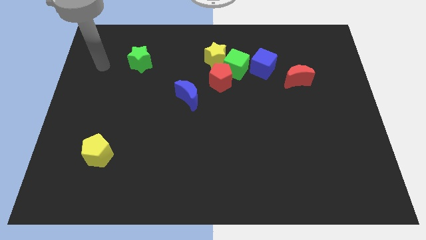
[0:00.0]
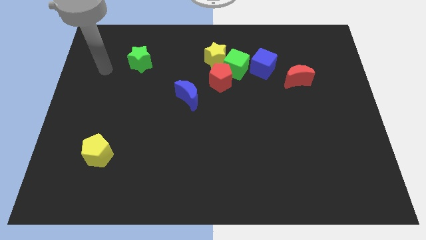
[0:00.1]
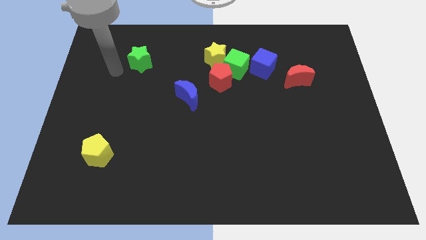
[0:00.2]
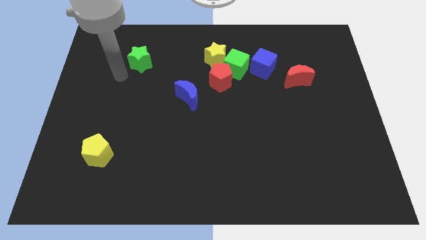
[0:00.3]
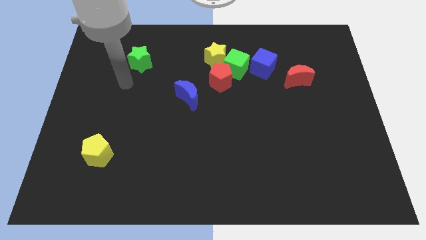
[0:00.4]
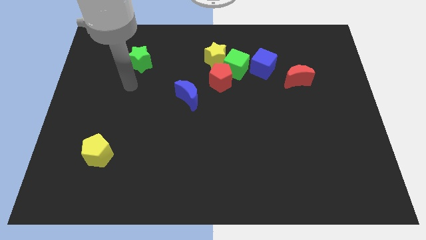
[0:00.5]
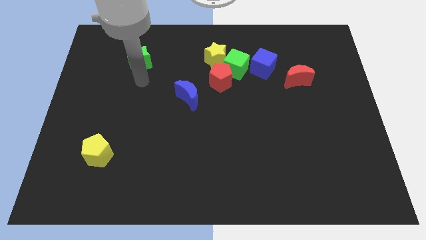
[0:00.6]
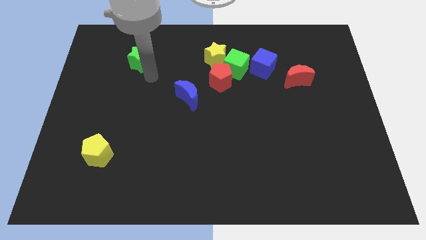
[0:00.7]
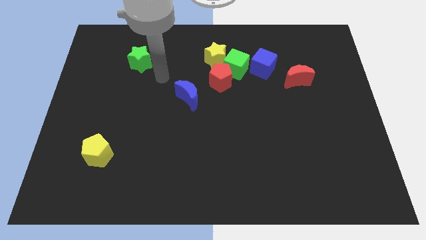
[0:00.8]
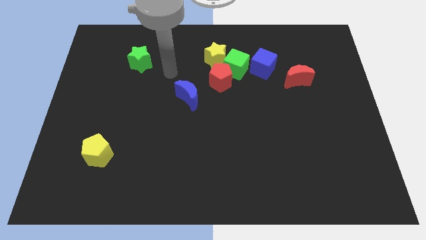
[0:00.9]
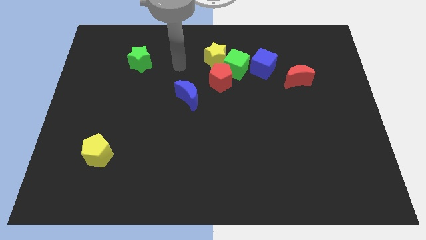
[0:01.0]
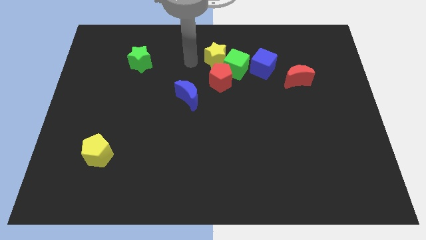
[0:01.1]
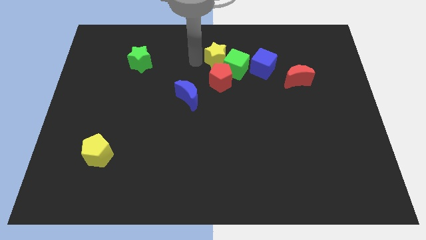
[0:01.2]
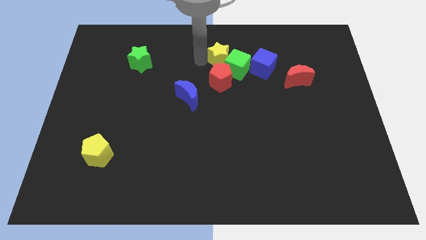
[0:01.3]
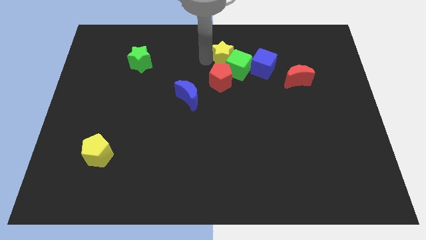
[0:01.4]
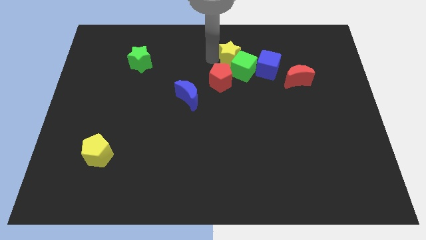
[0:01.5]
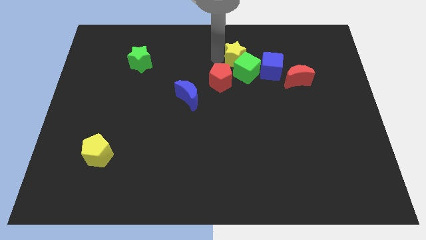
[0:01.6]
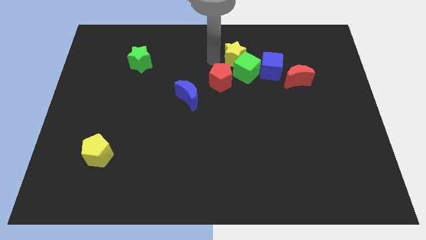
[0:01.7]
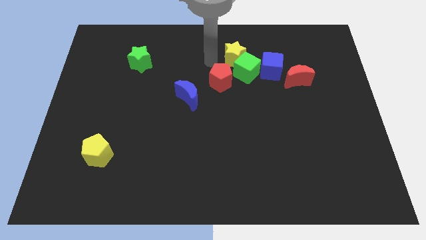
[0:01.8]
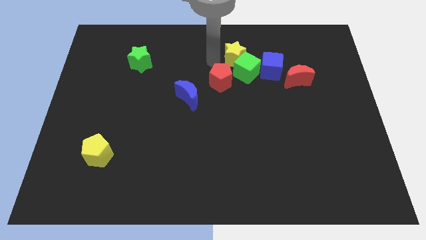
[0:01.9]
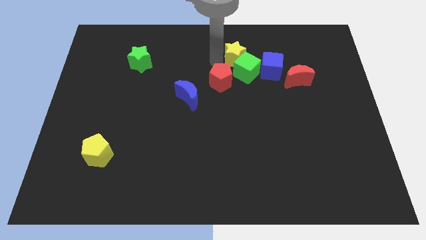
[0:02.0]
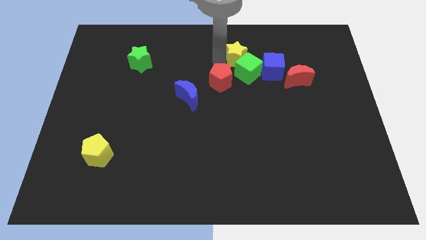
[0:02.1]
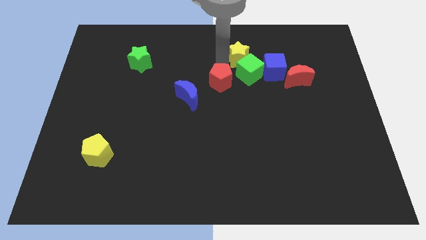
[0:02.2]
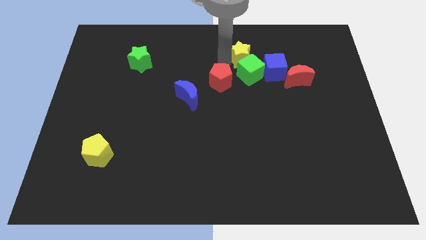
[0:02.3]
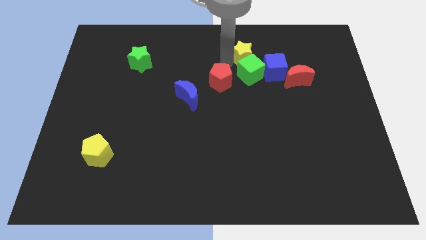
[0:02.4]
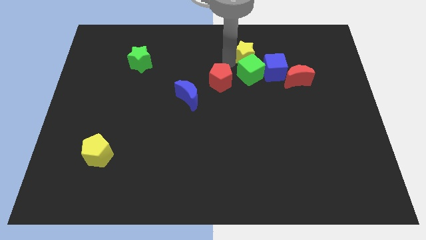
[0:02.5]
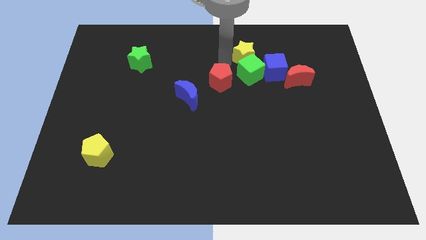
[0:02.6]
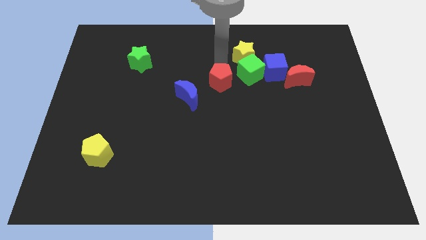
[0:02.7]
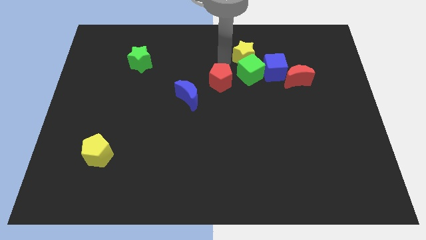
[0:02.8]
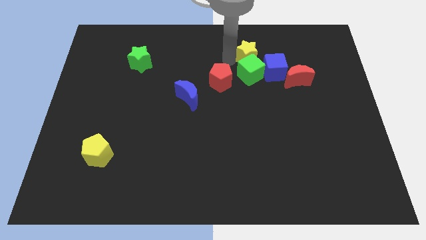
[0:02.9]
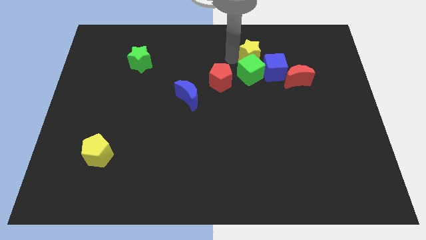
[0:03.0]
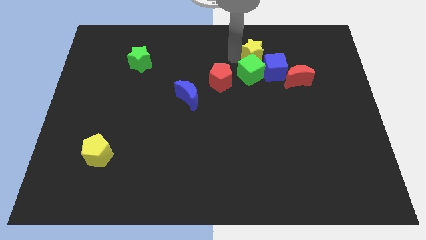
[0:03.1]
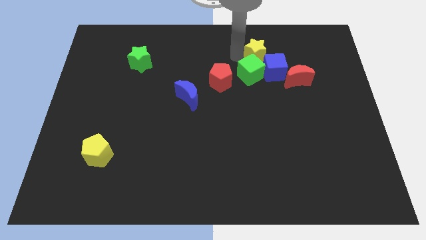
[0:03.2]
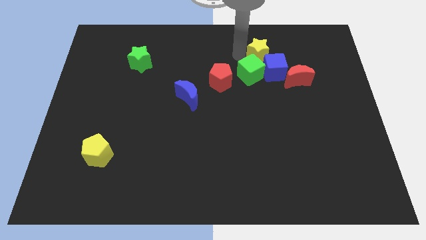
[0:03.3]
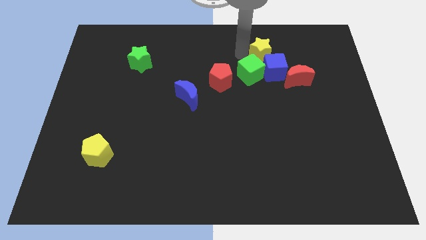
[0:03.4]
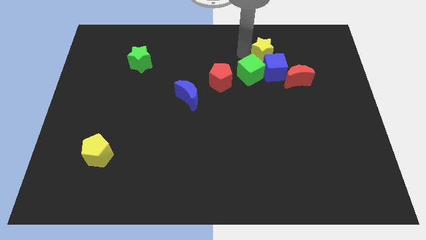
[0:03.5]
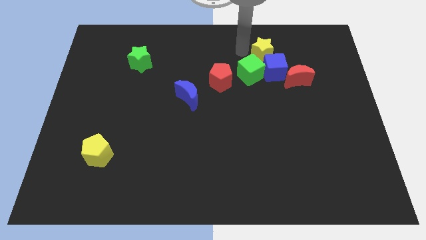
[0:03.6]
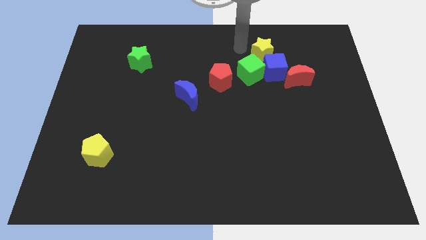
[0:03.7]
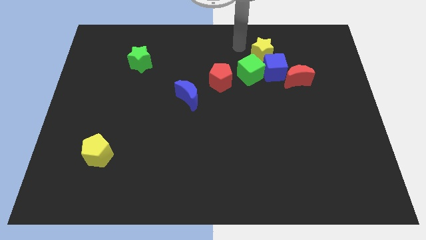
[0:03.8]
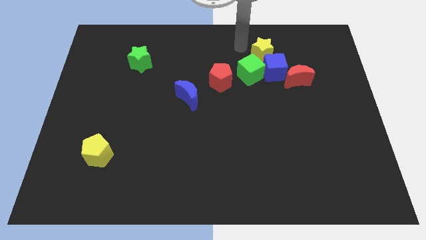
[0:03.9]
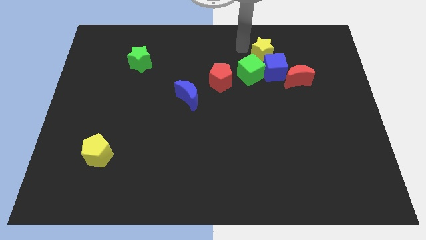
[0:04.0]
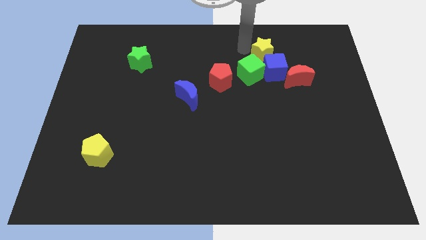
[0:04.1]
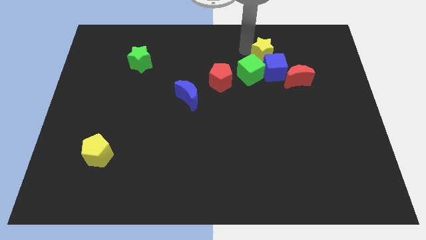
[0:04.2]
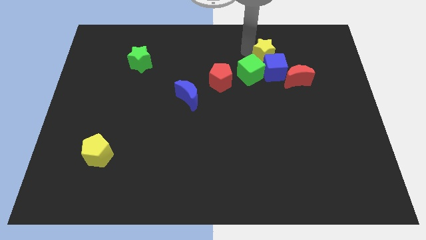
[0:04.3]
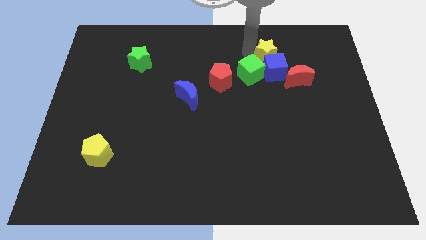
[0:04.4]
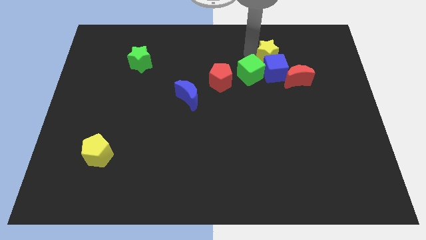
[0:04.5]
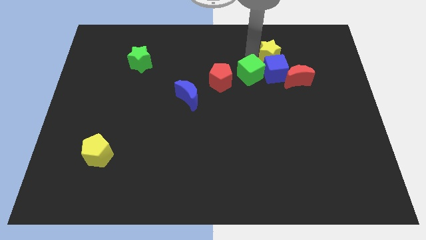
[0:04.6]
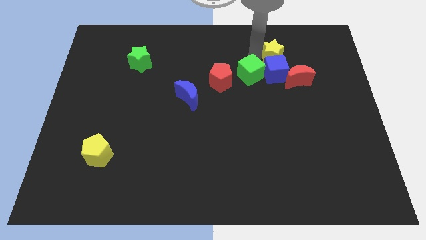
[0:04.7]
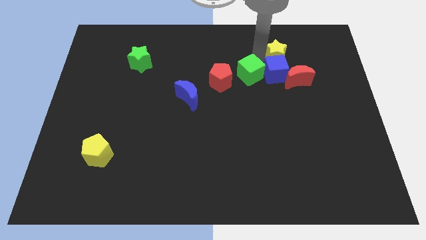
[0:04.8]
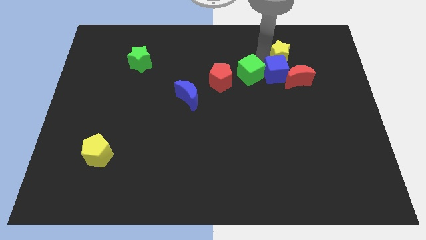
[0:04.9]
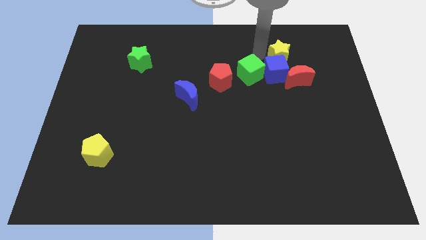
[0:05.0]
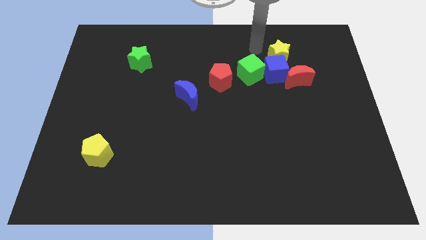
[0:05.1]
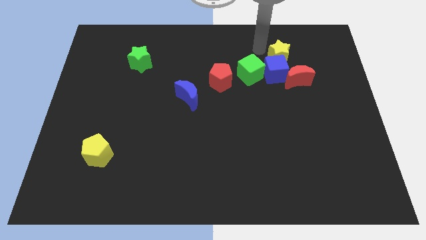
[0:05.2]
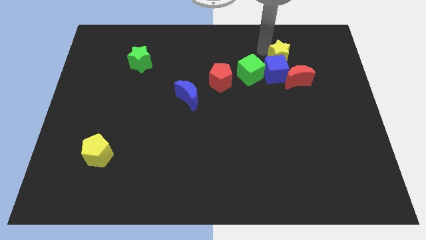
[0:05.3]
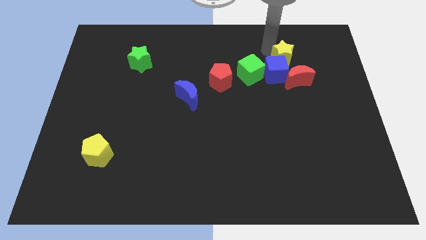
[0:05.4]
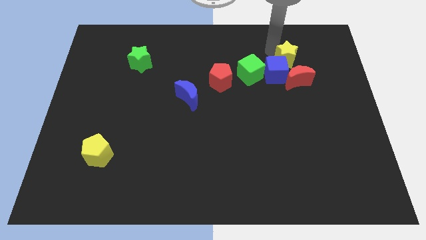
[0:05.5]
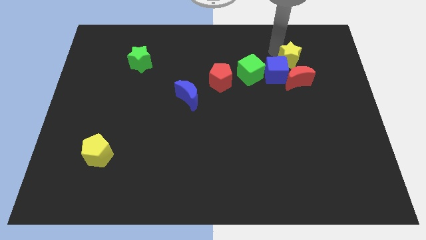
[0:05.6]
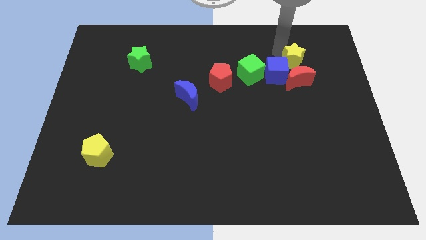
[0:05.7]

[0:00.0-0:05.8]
put the yellow star just right of the blue cube

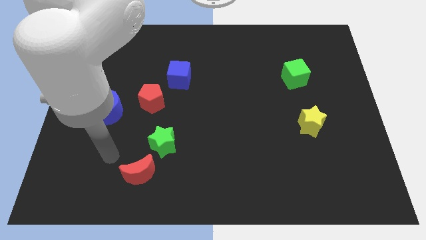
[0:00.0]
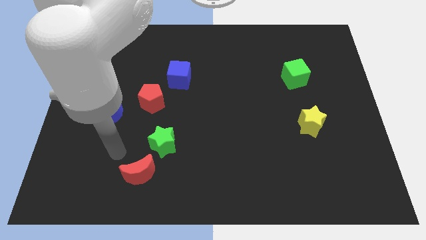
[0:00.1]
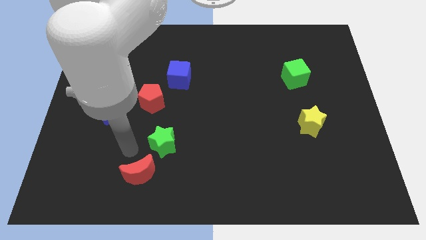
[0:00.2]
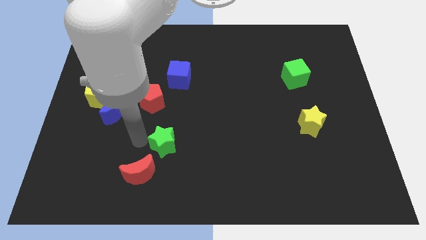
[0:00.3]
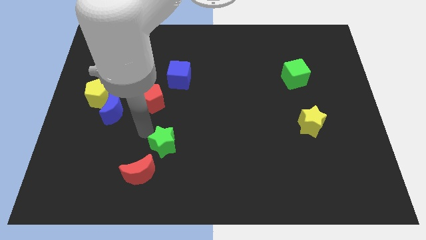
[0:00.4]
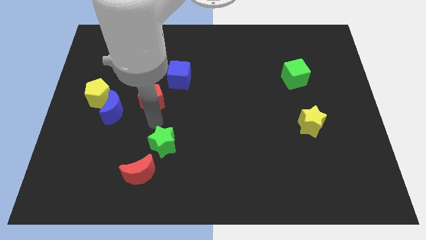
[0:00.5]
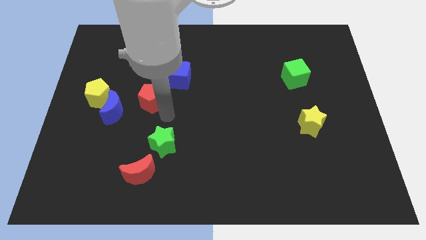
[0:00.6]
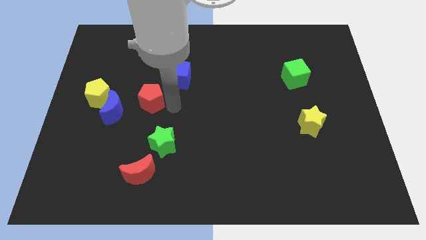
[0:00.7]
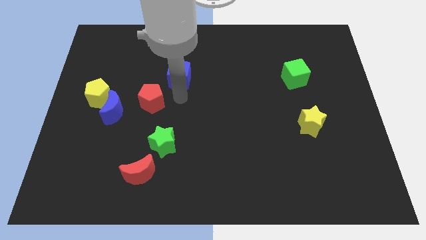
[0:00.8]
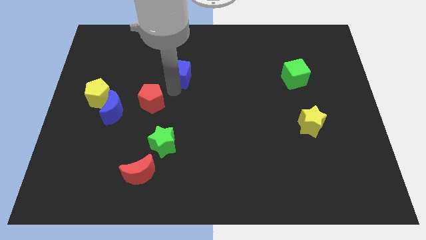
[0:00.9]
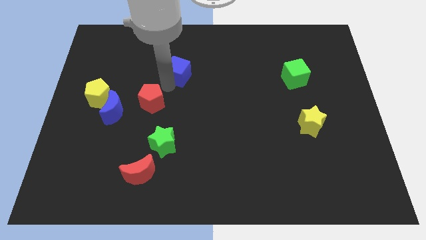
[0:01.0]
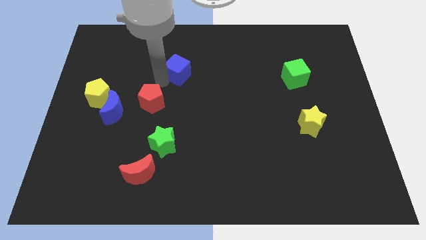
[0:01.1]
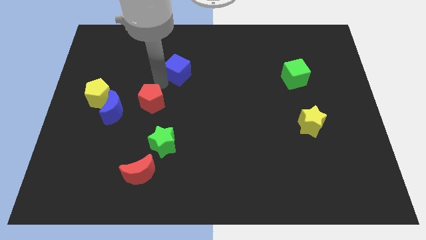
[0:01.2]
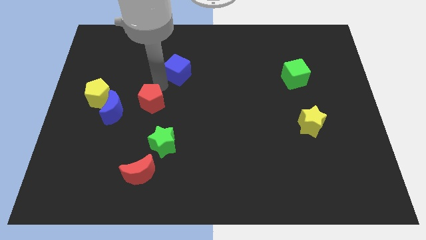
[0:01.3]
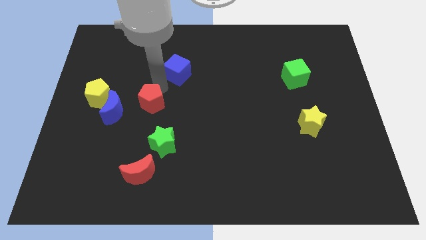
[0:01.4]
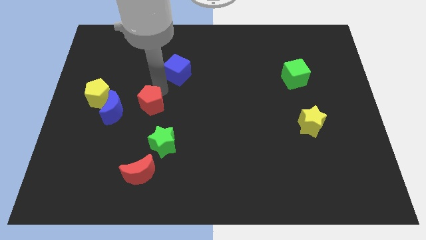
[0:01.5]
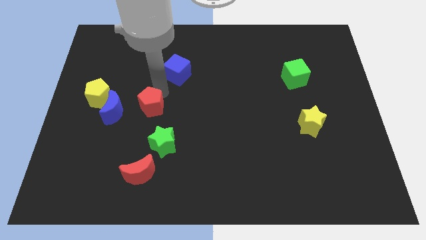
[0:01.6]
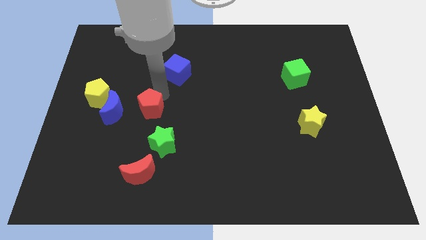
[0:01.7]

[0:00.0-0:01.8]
put the red pentagon diagonally up and to the left of the green star

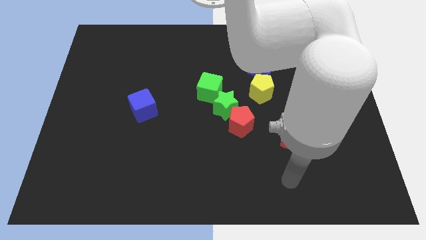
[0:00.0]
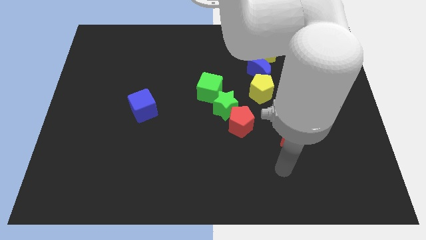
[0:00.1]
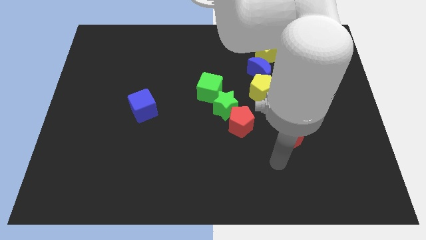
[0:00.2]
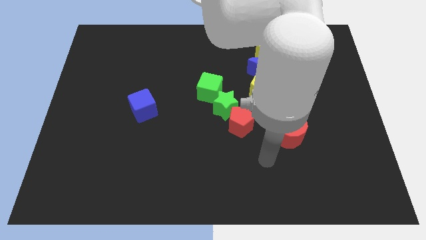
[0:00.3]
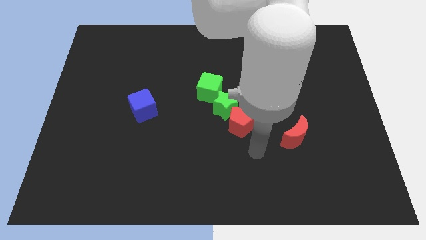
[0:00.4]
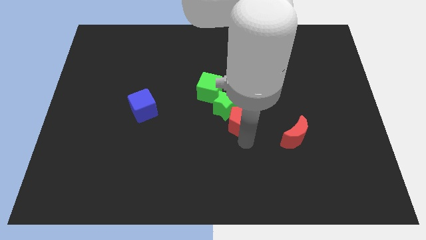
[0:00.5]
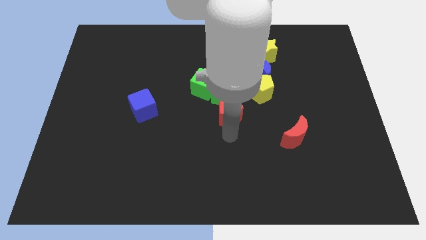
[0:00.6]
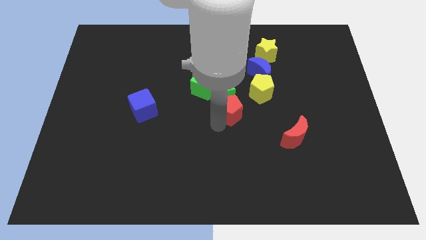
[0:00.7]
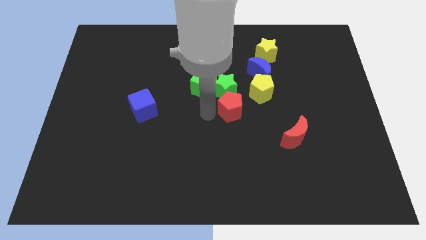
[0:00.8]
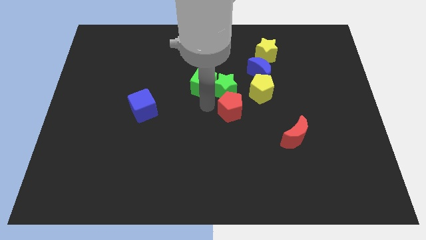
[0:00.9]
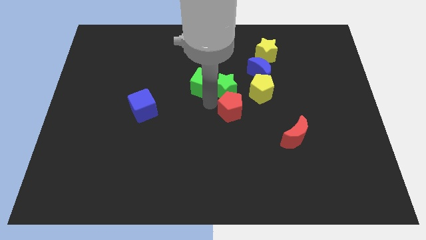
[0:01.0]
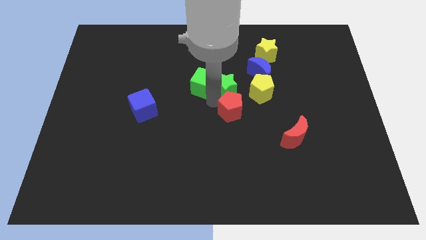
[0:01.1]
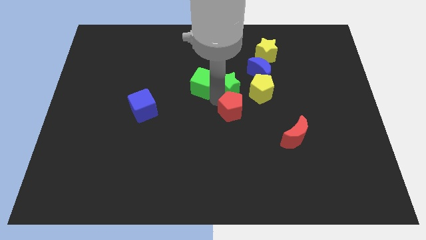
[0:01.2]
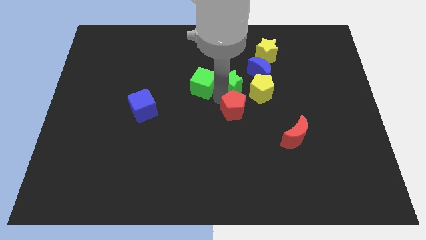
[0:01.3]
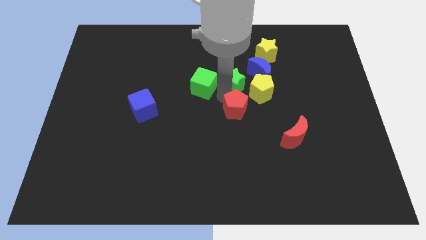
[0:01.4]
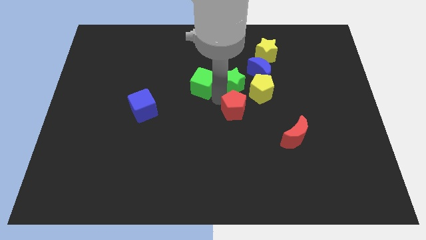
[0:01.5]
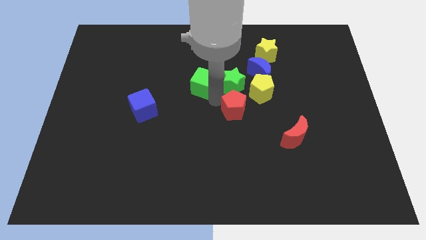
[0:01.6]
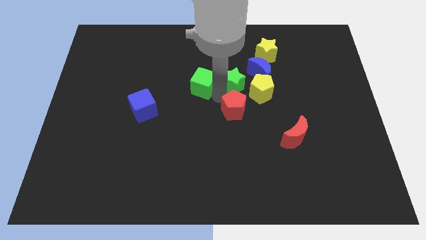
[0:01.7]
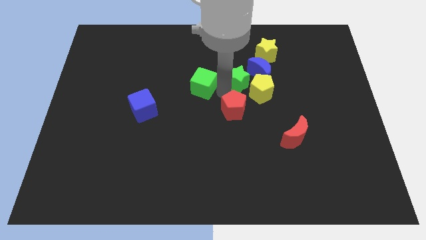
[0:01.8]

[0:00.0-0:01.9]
slide the green star to the bottom left of the yellow star
